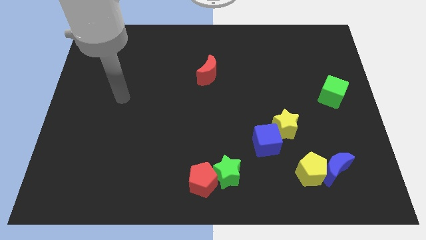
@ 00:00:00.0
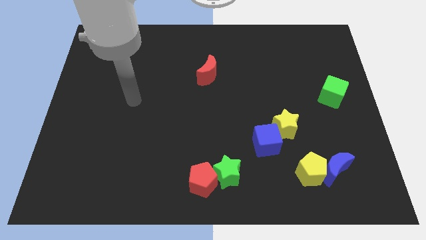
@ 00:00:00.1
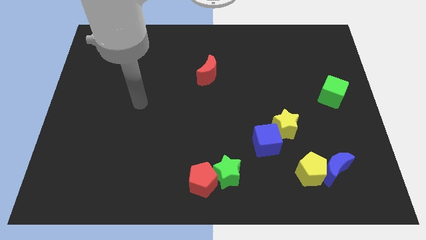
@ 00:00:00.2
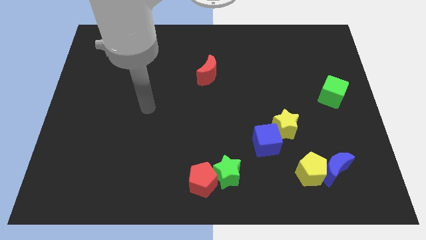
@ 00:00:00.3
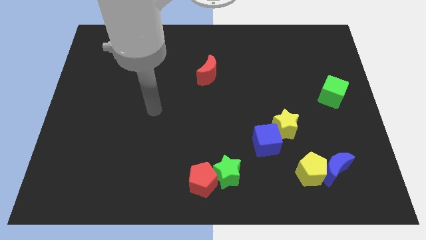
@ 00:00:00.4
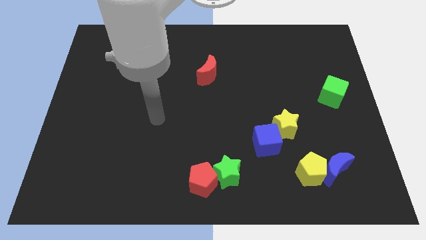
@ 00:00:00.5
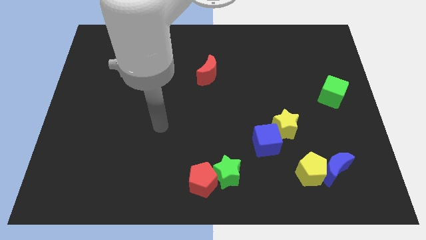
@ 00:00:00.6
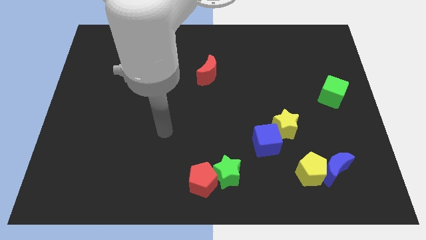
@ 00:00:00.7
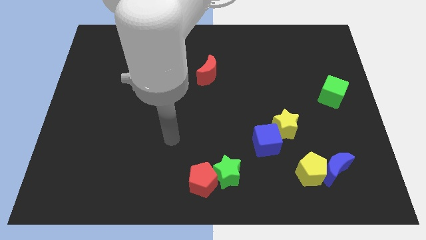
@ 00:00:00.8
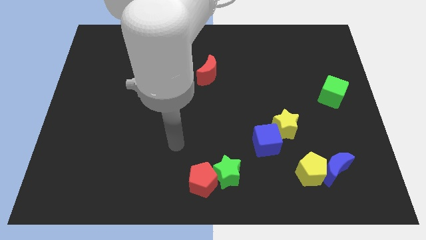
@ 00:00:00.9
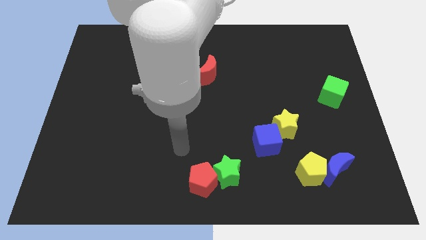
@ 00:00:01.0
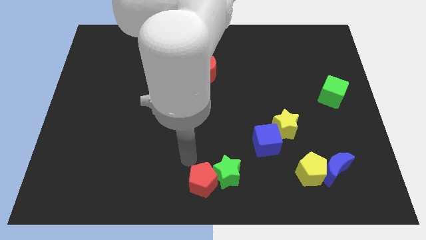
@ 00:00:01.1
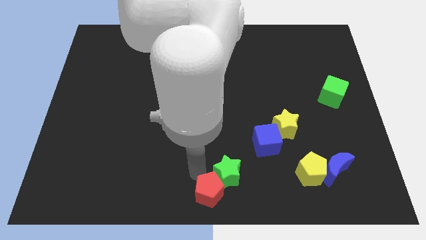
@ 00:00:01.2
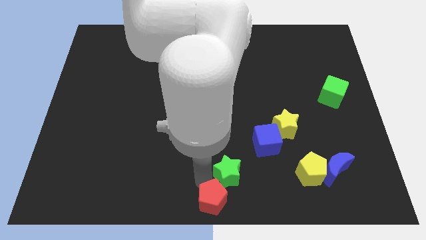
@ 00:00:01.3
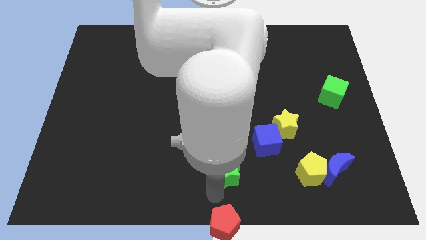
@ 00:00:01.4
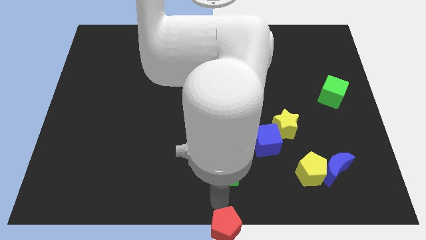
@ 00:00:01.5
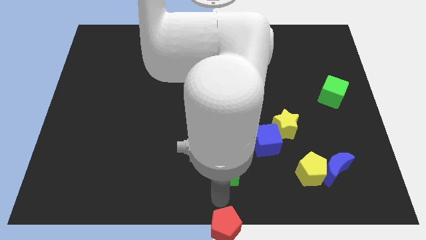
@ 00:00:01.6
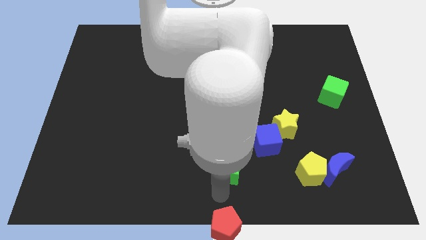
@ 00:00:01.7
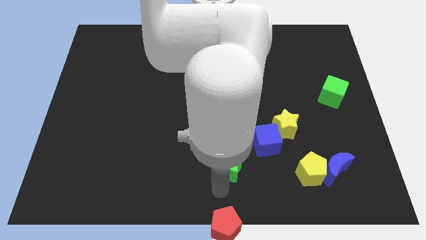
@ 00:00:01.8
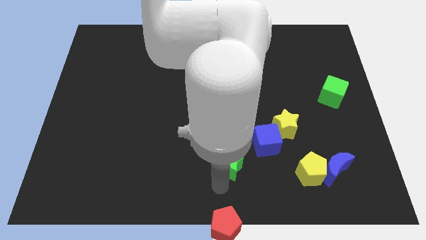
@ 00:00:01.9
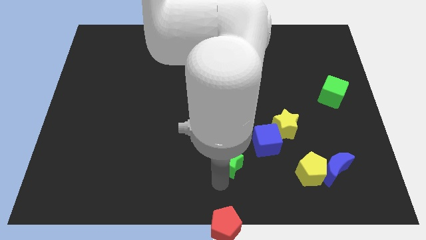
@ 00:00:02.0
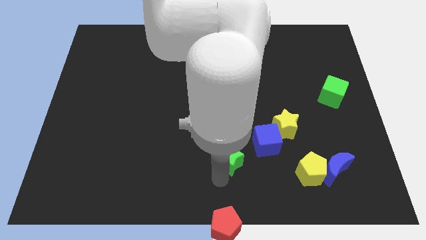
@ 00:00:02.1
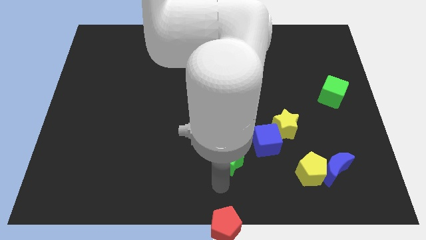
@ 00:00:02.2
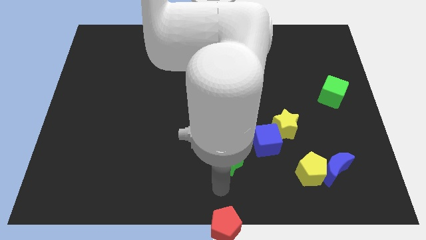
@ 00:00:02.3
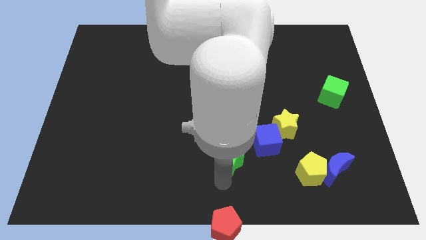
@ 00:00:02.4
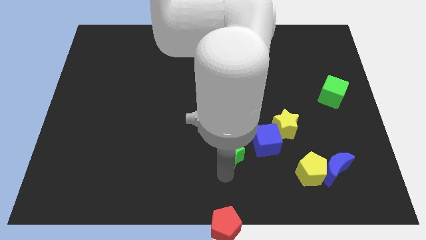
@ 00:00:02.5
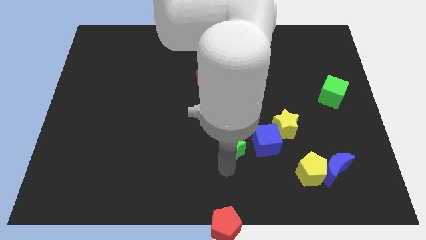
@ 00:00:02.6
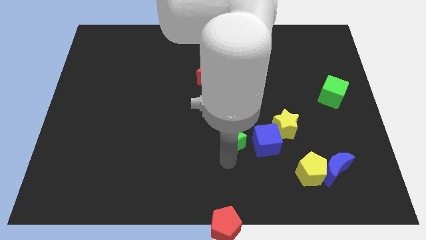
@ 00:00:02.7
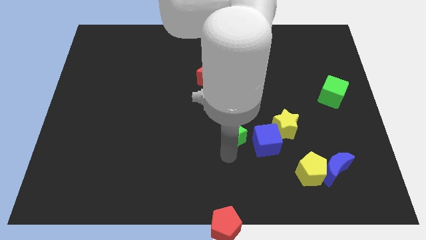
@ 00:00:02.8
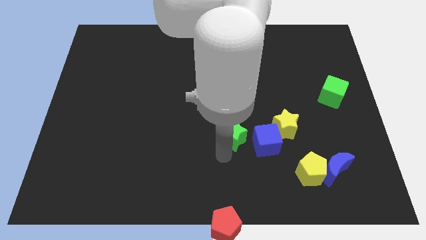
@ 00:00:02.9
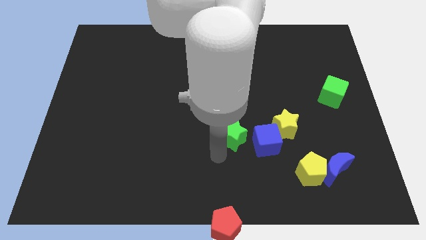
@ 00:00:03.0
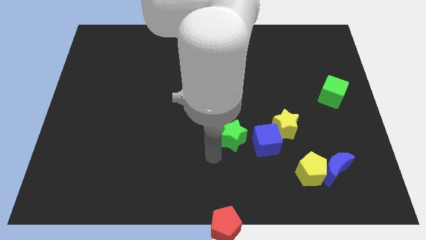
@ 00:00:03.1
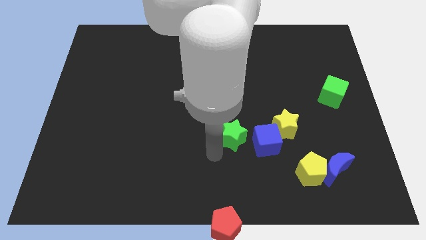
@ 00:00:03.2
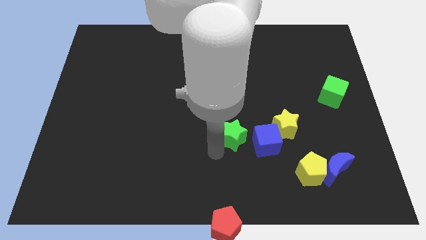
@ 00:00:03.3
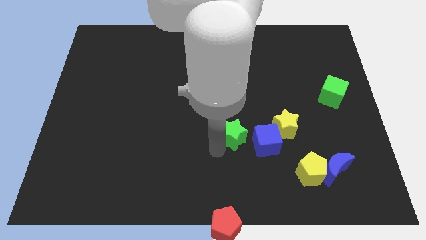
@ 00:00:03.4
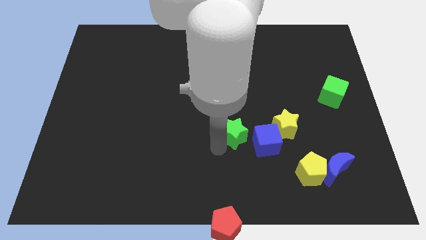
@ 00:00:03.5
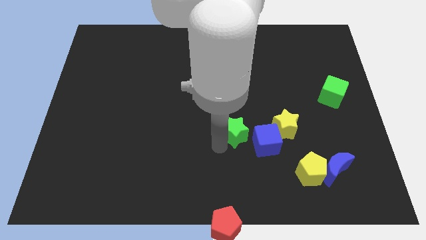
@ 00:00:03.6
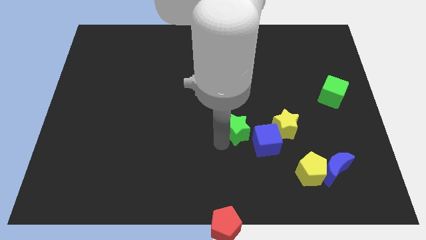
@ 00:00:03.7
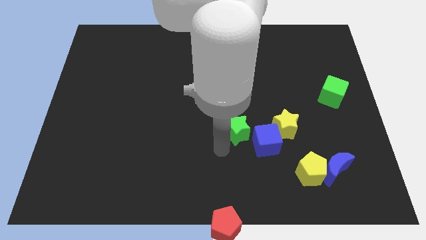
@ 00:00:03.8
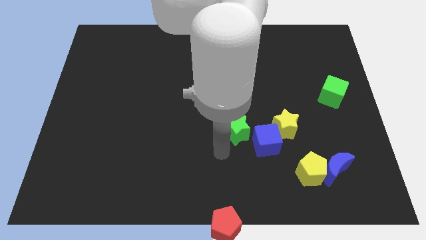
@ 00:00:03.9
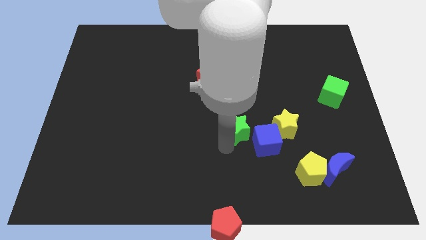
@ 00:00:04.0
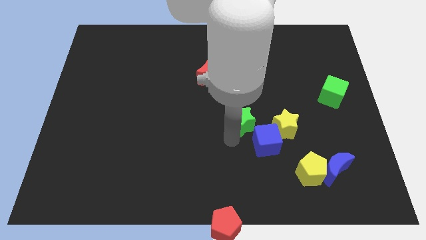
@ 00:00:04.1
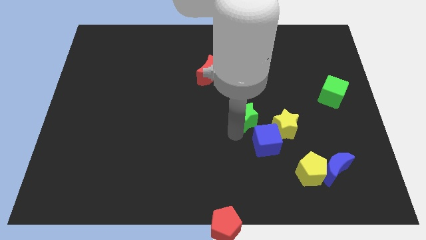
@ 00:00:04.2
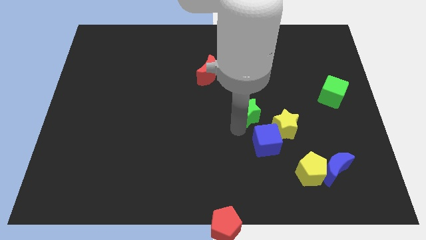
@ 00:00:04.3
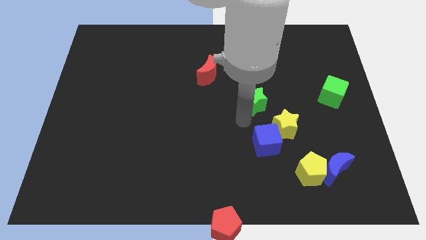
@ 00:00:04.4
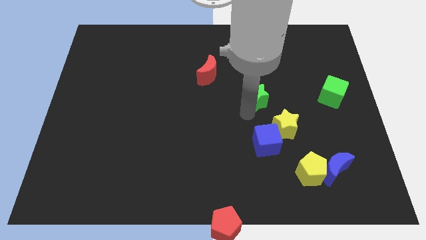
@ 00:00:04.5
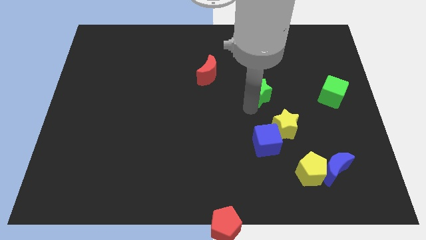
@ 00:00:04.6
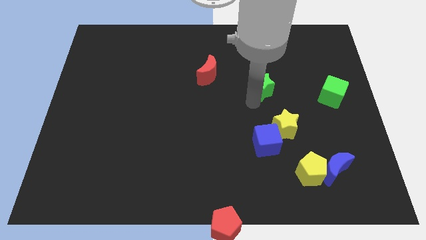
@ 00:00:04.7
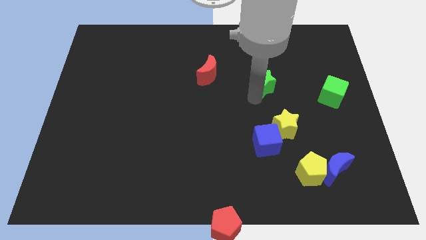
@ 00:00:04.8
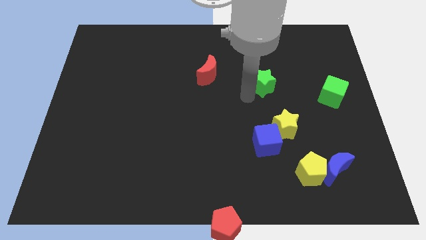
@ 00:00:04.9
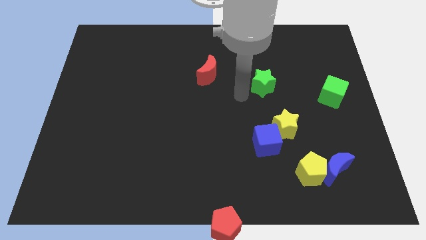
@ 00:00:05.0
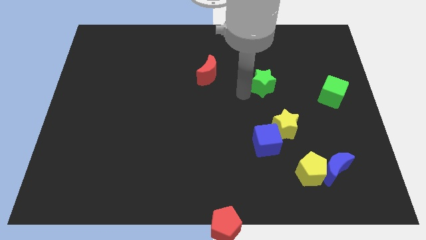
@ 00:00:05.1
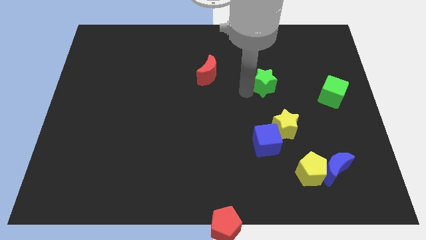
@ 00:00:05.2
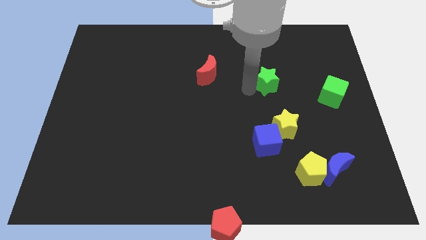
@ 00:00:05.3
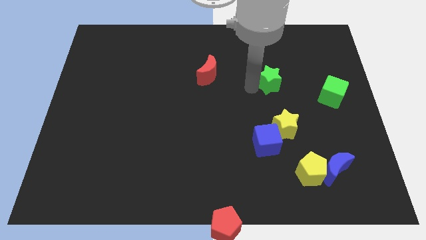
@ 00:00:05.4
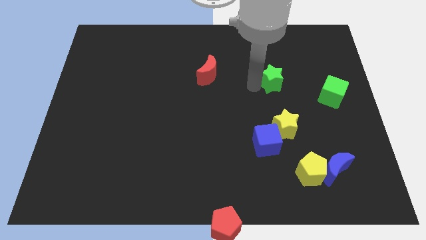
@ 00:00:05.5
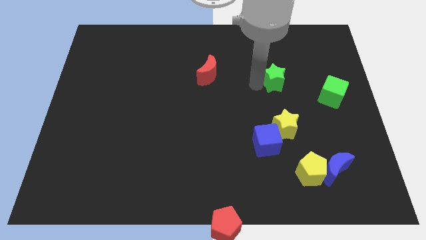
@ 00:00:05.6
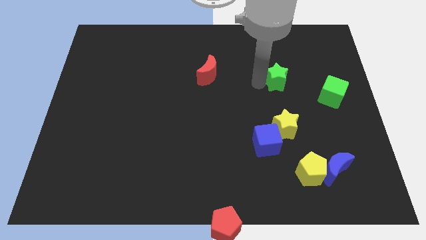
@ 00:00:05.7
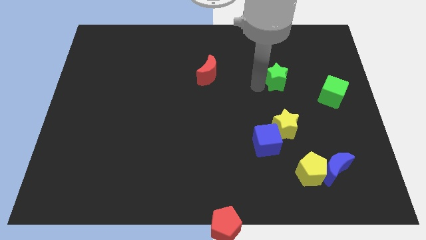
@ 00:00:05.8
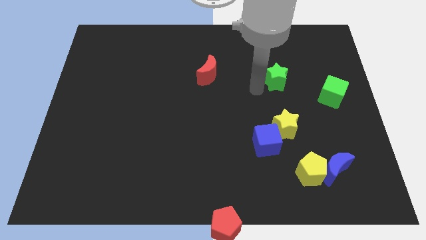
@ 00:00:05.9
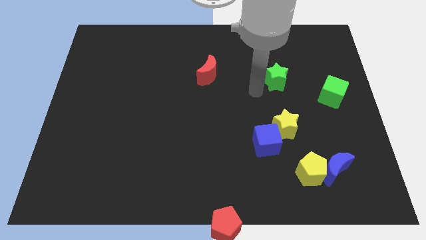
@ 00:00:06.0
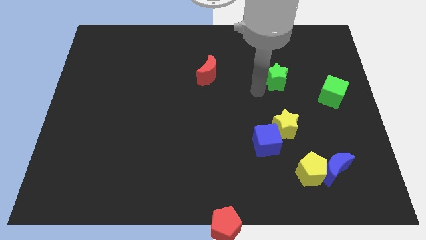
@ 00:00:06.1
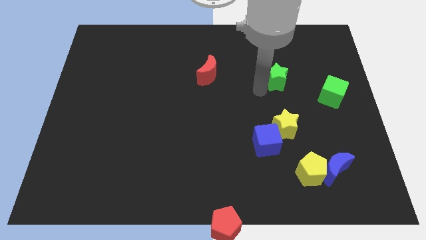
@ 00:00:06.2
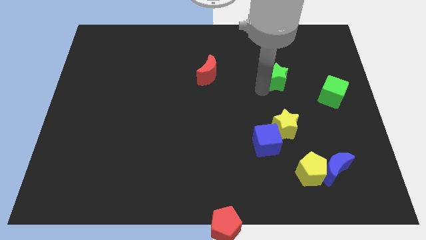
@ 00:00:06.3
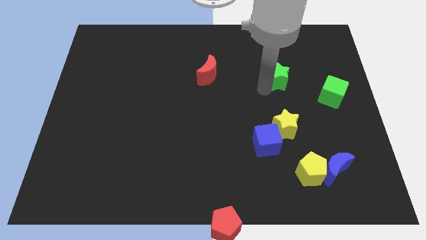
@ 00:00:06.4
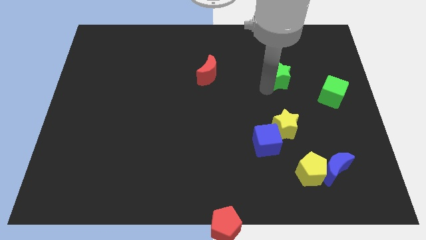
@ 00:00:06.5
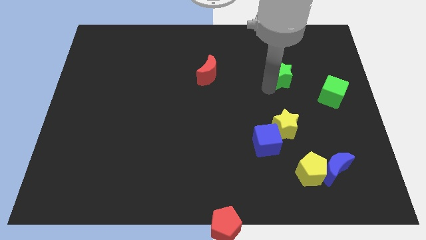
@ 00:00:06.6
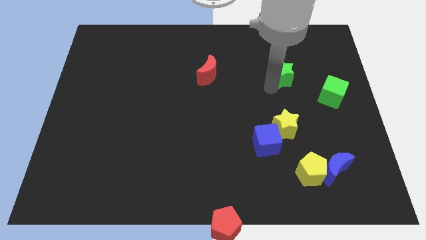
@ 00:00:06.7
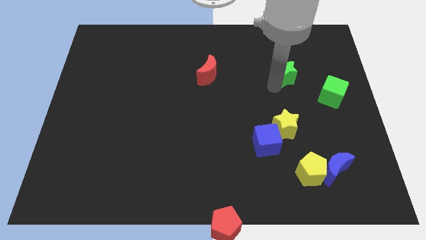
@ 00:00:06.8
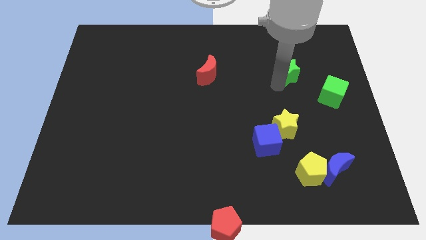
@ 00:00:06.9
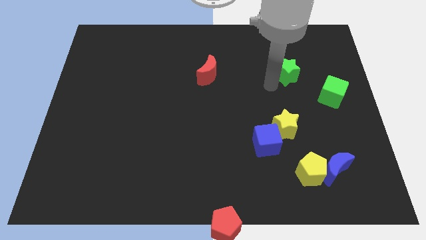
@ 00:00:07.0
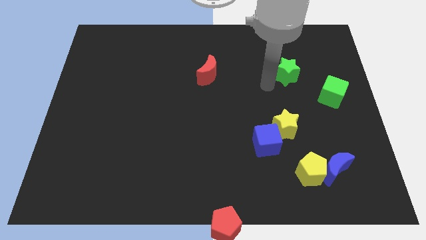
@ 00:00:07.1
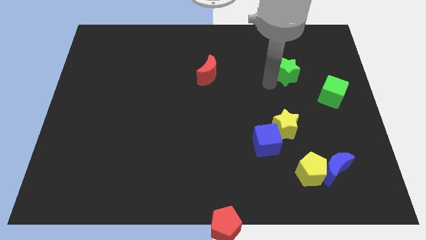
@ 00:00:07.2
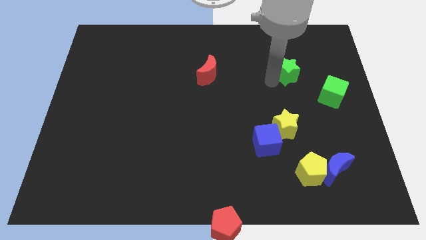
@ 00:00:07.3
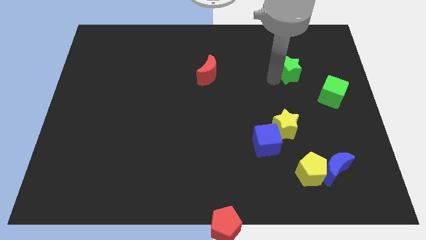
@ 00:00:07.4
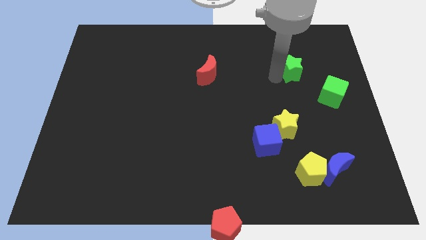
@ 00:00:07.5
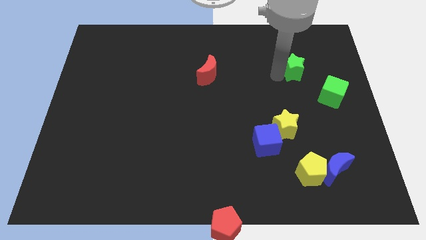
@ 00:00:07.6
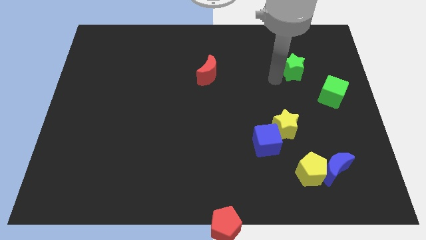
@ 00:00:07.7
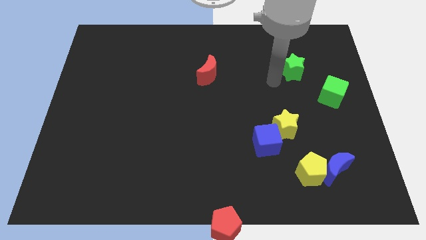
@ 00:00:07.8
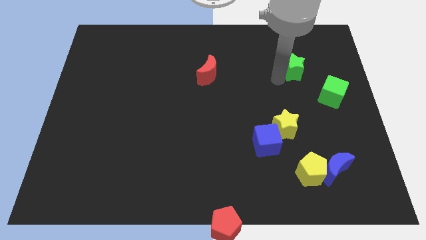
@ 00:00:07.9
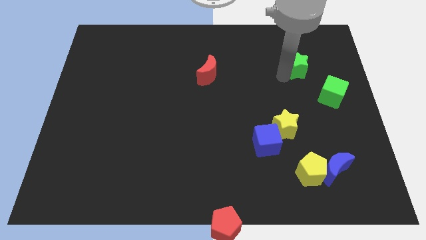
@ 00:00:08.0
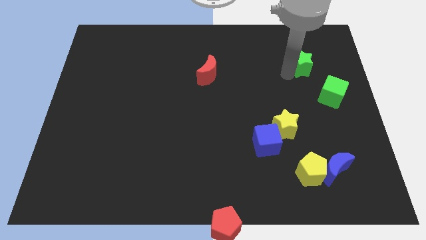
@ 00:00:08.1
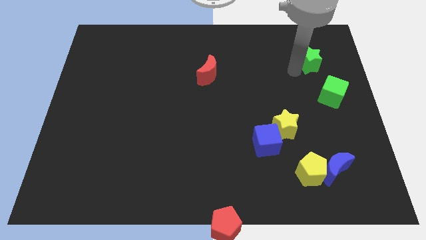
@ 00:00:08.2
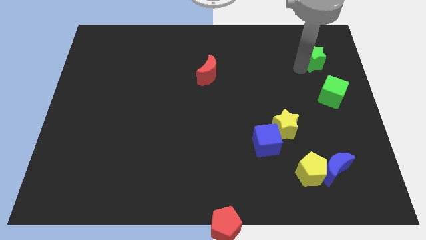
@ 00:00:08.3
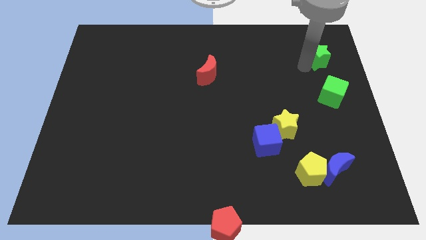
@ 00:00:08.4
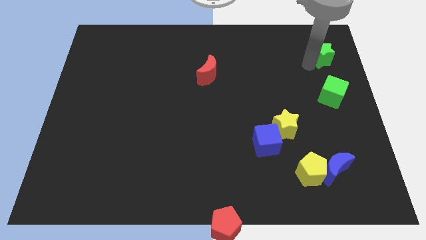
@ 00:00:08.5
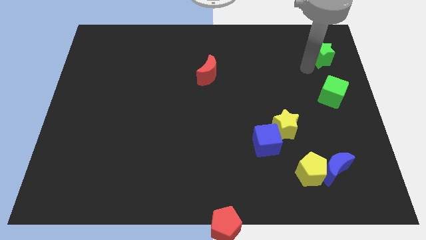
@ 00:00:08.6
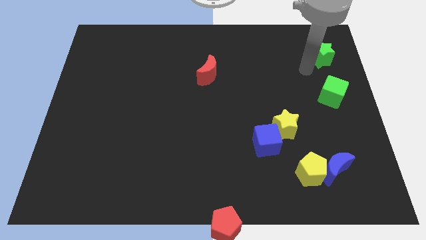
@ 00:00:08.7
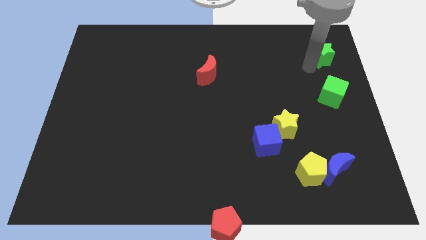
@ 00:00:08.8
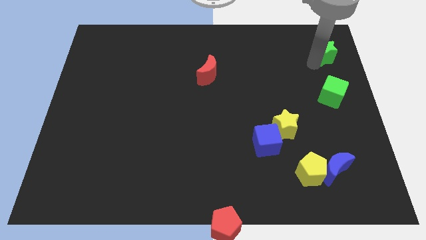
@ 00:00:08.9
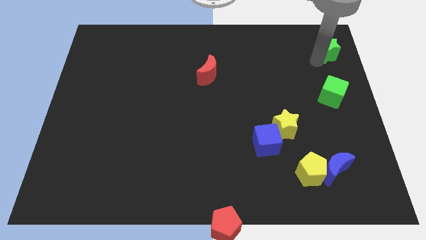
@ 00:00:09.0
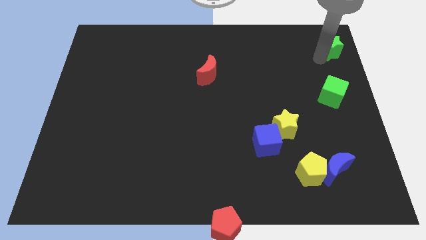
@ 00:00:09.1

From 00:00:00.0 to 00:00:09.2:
slide the green star to the top right of the board
